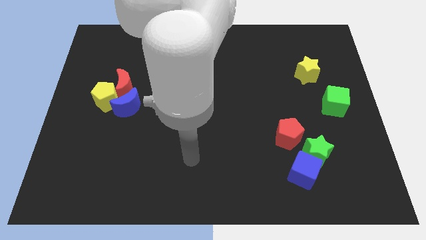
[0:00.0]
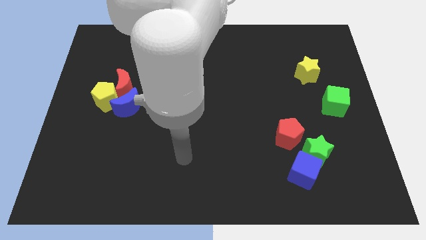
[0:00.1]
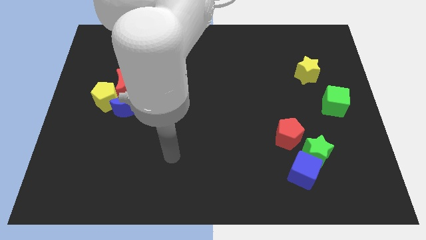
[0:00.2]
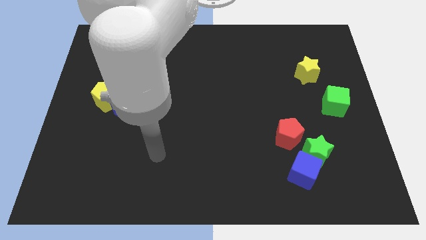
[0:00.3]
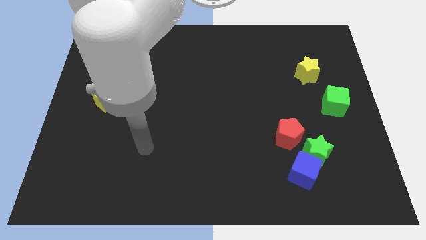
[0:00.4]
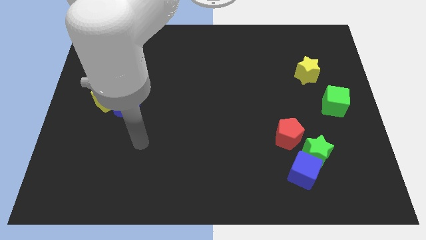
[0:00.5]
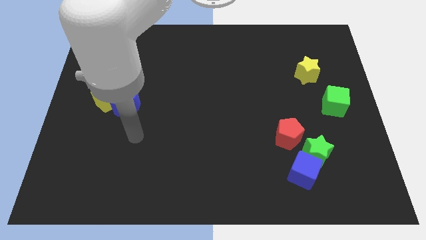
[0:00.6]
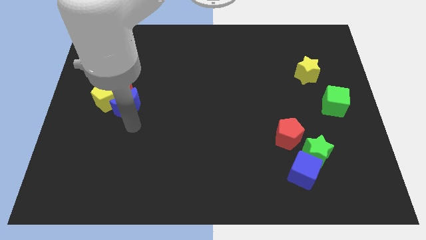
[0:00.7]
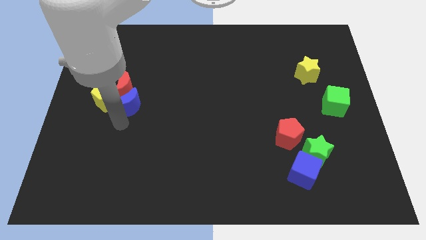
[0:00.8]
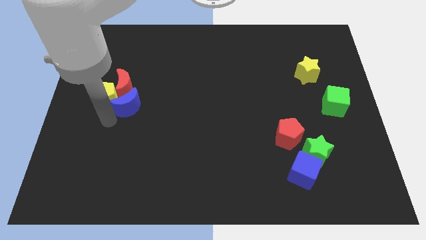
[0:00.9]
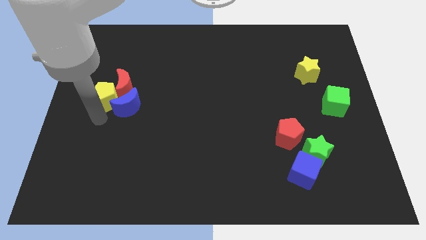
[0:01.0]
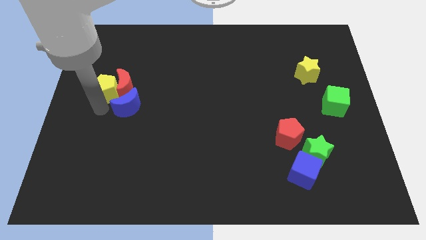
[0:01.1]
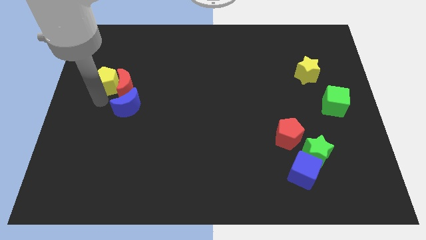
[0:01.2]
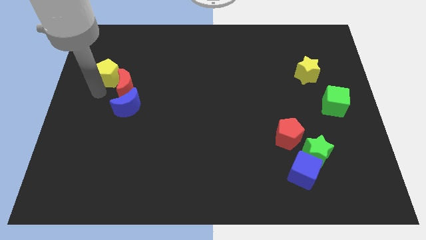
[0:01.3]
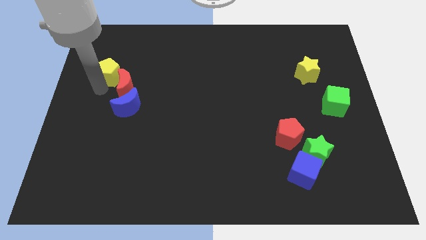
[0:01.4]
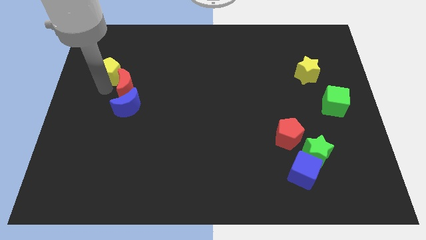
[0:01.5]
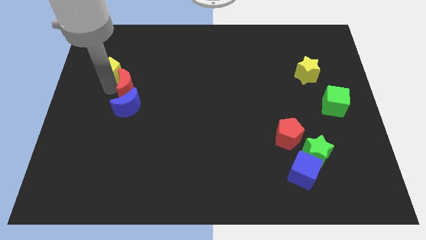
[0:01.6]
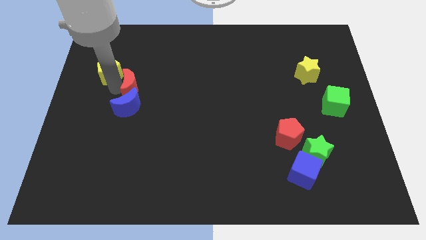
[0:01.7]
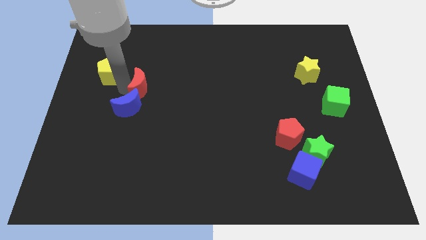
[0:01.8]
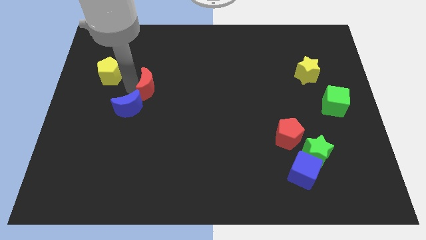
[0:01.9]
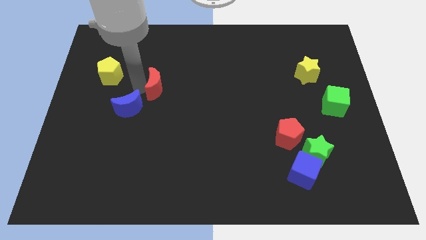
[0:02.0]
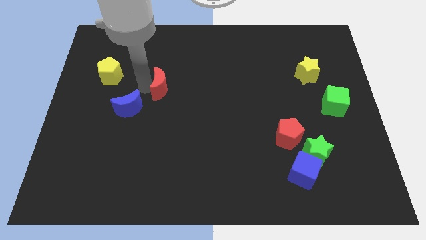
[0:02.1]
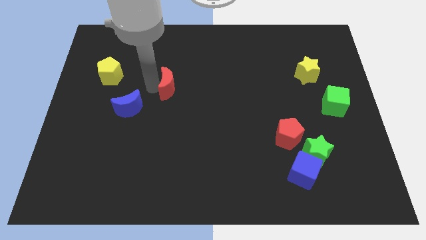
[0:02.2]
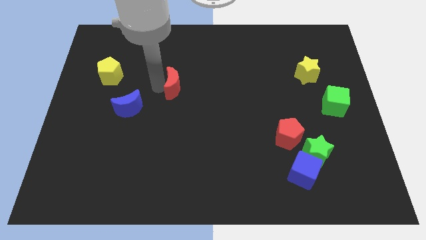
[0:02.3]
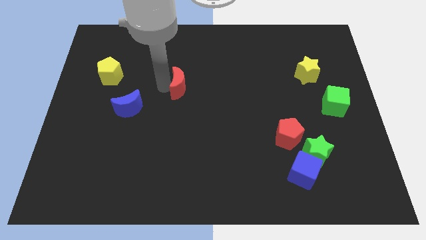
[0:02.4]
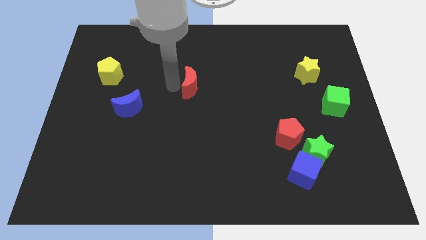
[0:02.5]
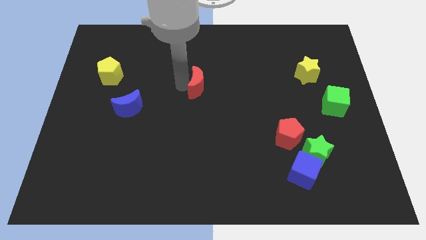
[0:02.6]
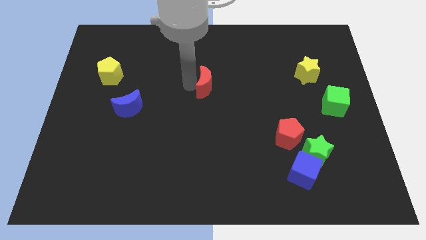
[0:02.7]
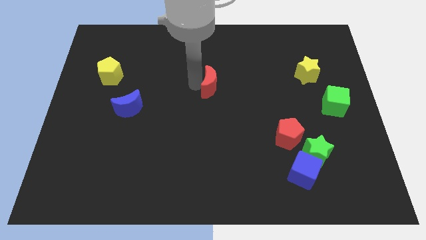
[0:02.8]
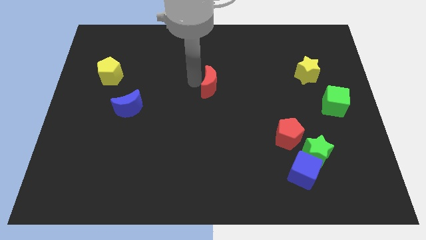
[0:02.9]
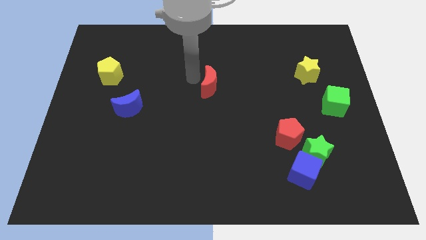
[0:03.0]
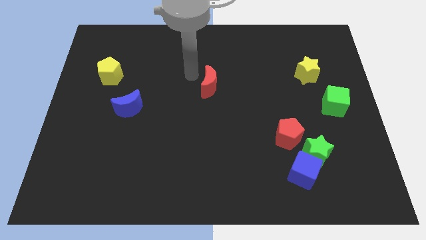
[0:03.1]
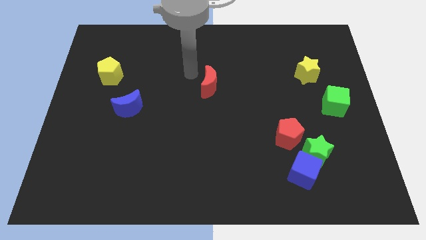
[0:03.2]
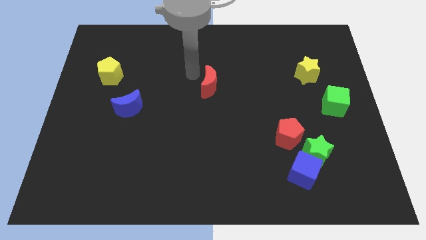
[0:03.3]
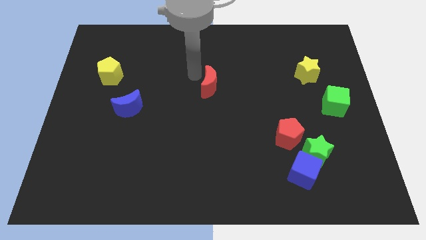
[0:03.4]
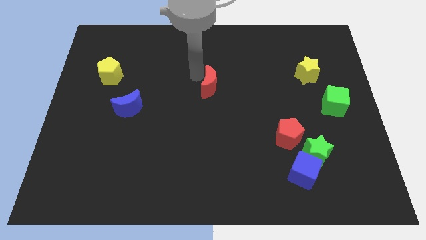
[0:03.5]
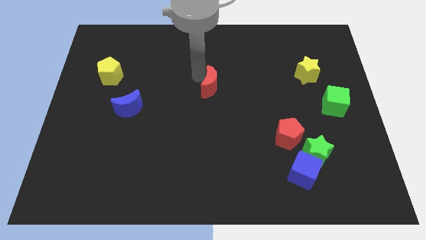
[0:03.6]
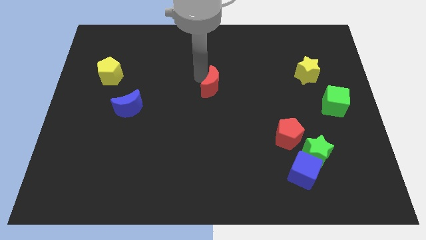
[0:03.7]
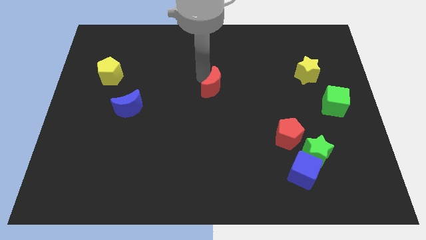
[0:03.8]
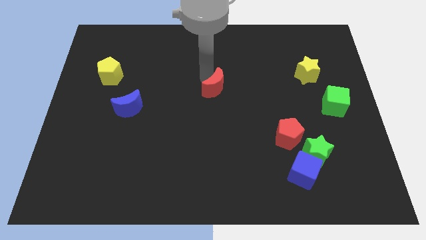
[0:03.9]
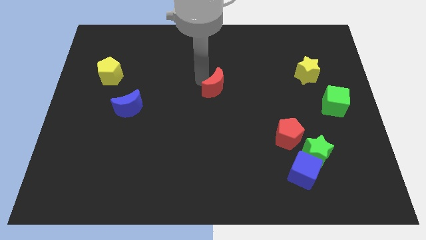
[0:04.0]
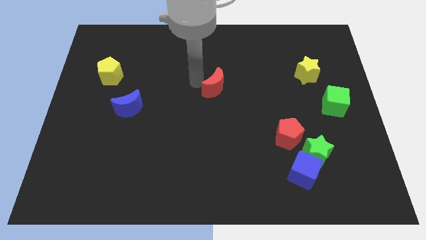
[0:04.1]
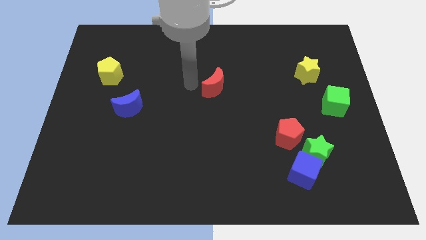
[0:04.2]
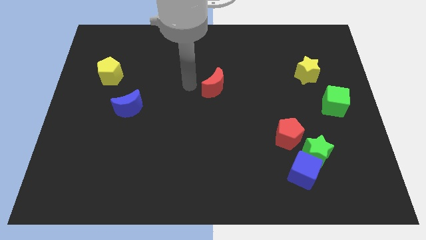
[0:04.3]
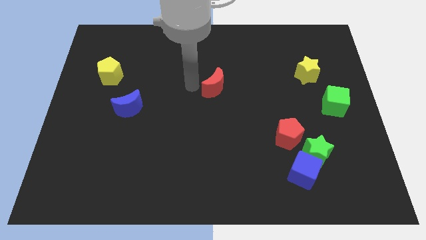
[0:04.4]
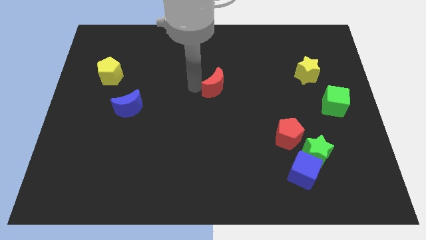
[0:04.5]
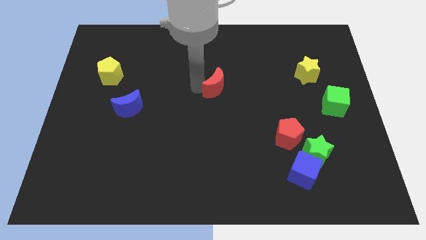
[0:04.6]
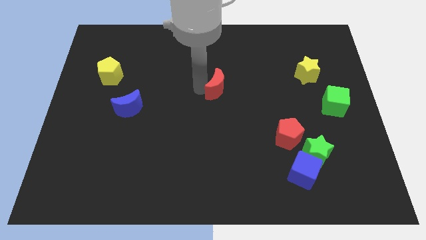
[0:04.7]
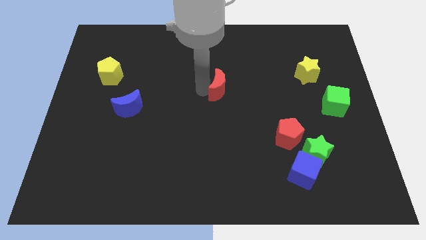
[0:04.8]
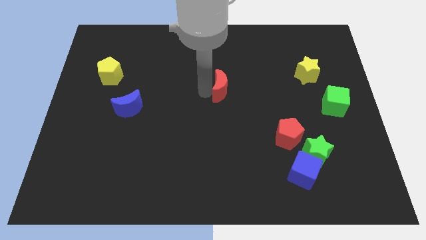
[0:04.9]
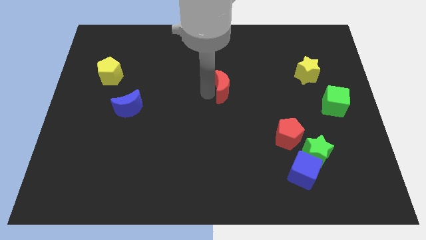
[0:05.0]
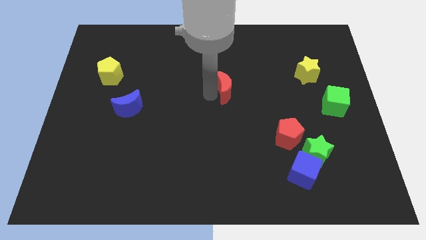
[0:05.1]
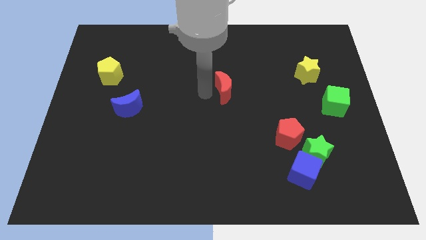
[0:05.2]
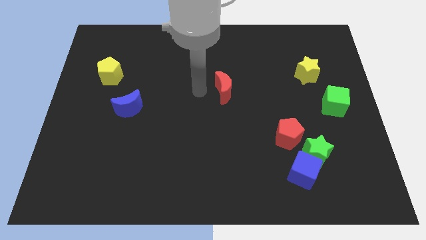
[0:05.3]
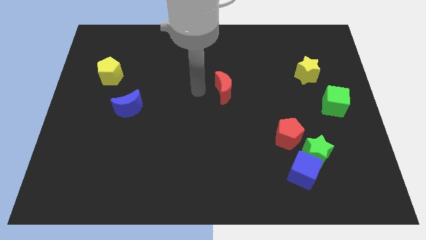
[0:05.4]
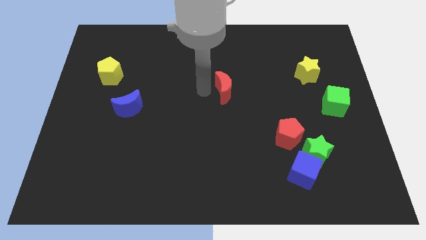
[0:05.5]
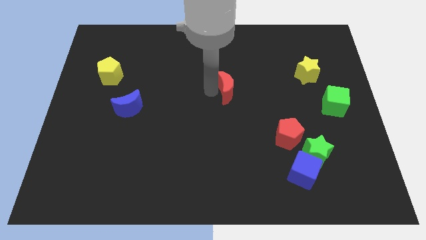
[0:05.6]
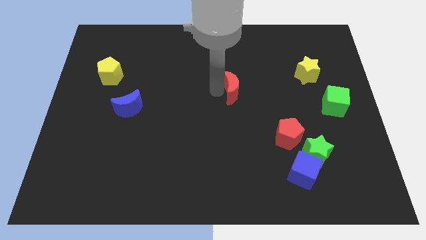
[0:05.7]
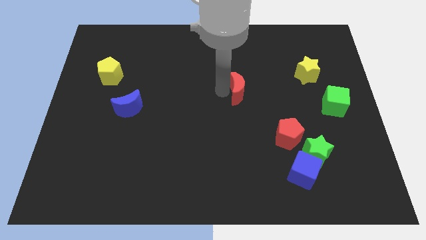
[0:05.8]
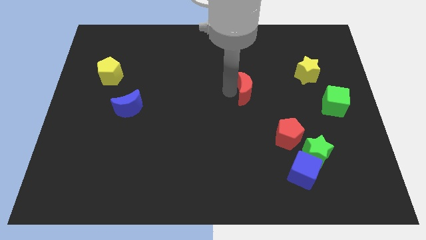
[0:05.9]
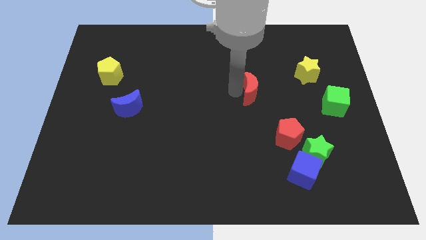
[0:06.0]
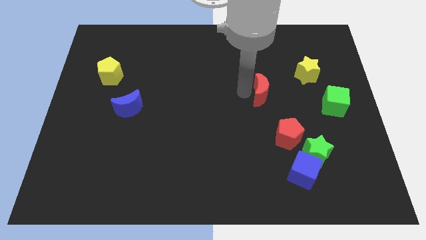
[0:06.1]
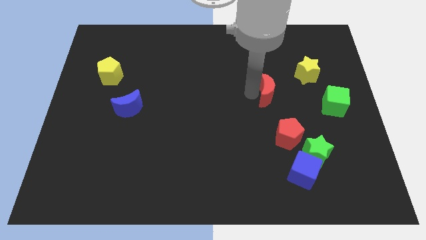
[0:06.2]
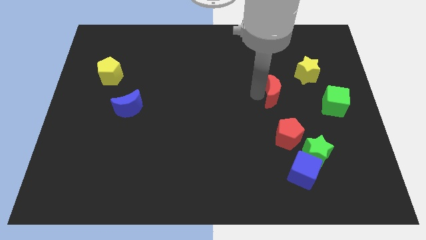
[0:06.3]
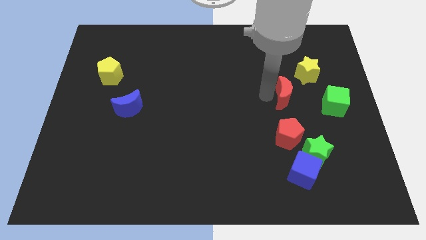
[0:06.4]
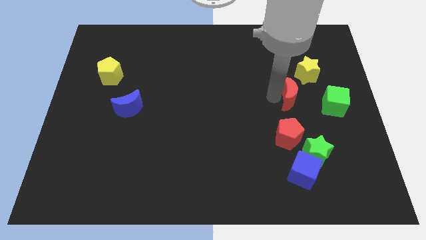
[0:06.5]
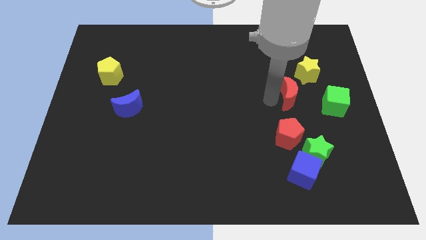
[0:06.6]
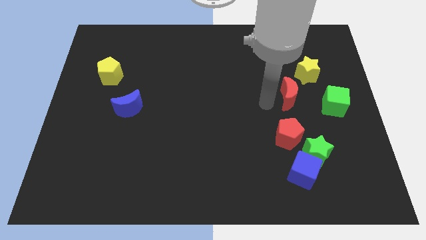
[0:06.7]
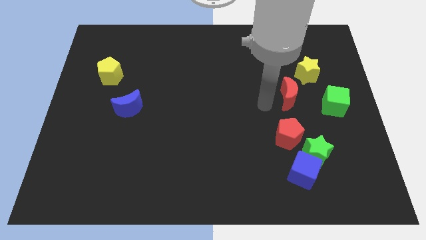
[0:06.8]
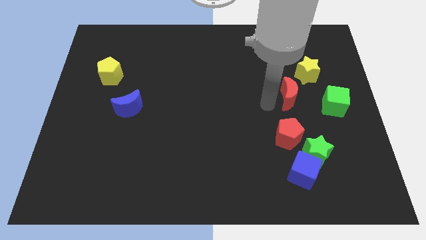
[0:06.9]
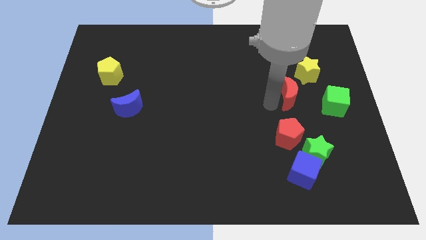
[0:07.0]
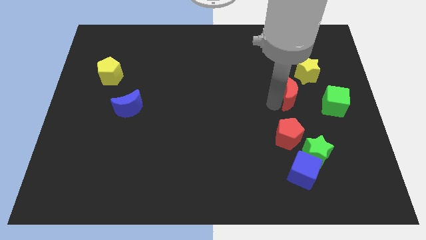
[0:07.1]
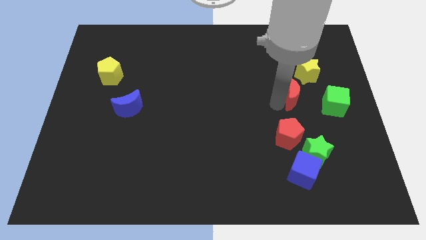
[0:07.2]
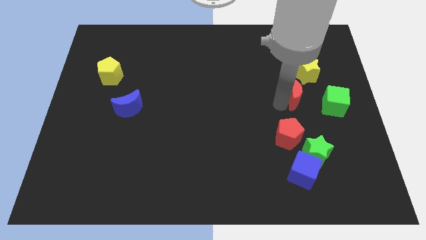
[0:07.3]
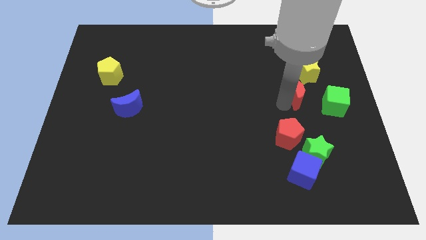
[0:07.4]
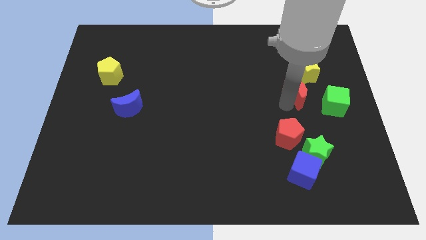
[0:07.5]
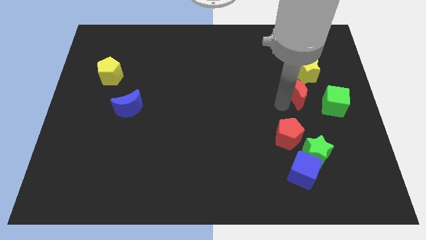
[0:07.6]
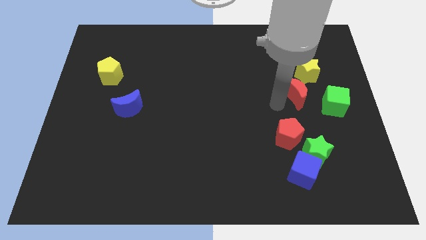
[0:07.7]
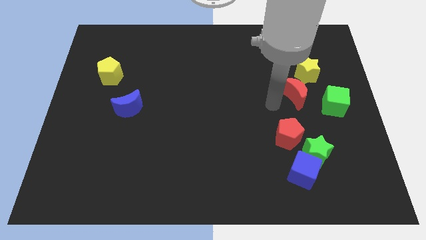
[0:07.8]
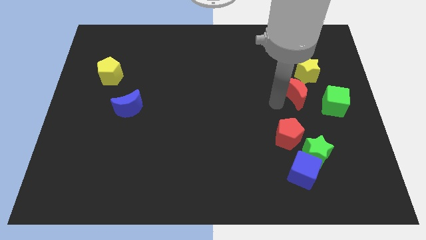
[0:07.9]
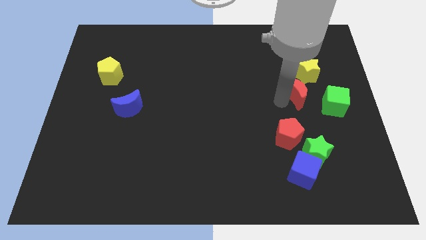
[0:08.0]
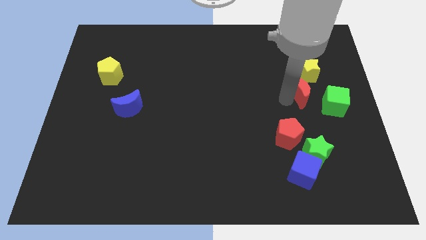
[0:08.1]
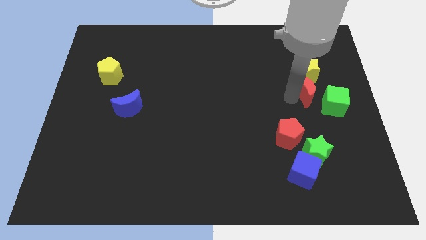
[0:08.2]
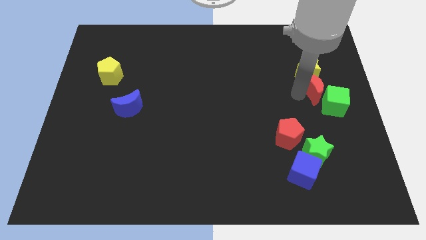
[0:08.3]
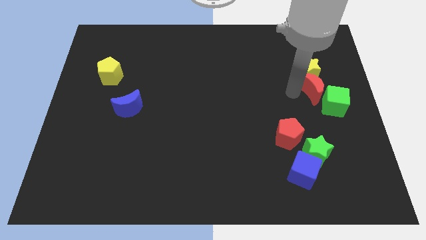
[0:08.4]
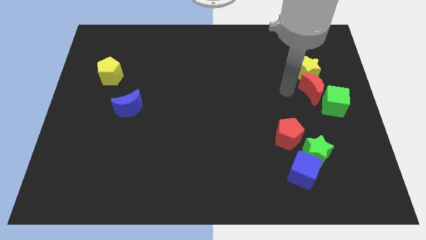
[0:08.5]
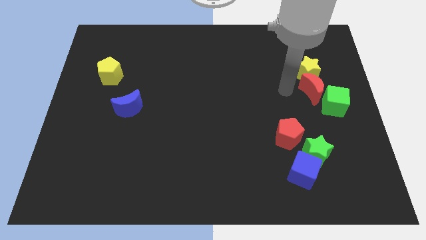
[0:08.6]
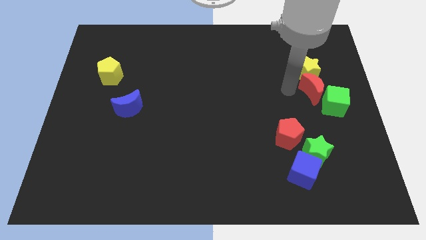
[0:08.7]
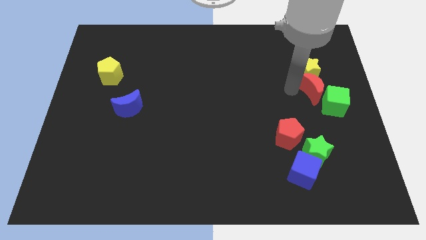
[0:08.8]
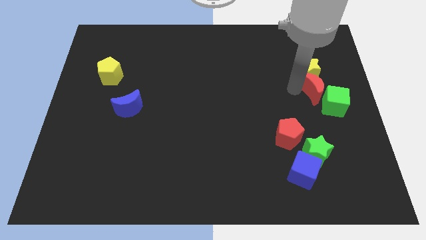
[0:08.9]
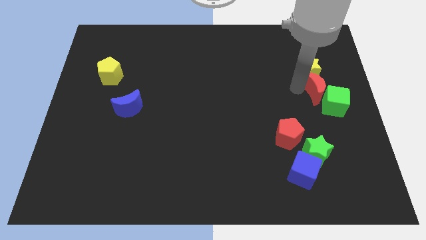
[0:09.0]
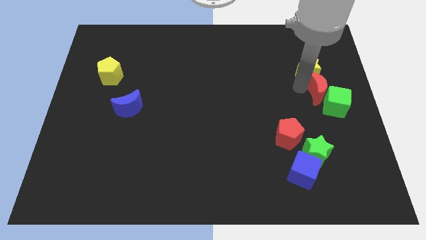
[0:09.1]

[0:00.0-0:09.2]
put the red moon to the right side of the board
